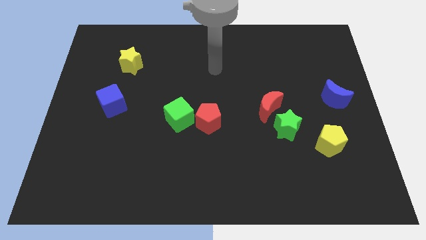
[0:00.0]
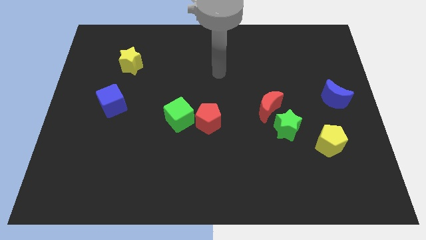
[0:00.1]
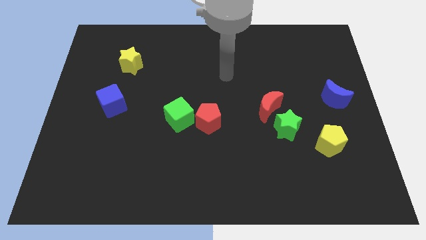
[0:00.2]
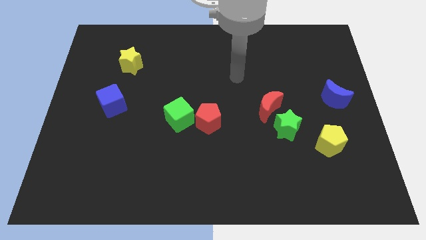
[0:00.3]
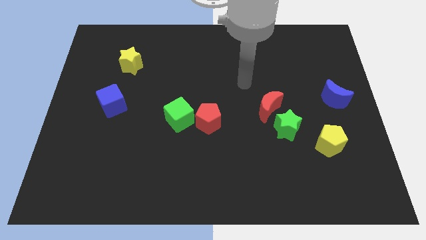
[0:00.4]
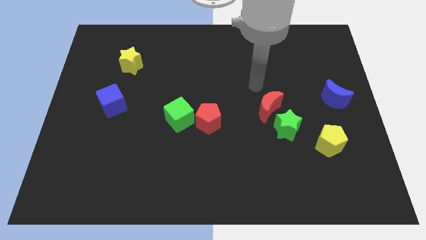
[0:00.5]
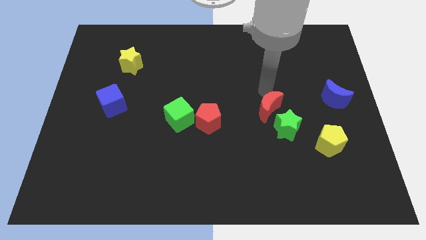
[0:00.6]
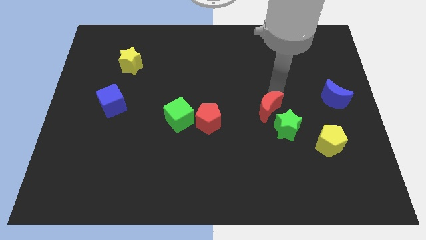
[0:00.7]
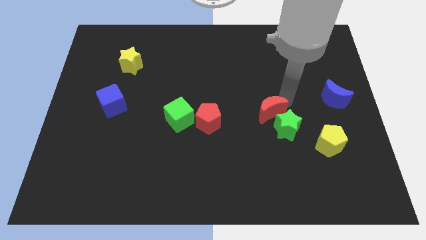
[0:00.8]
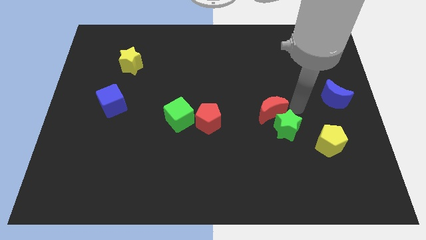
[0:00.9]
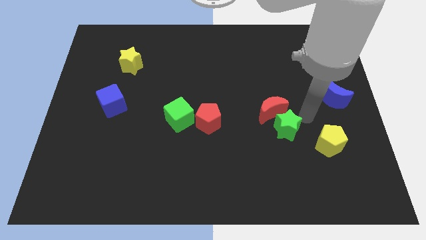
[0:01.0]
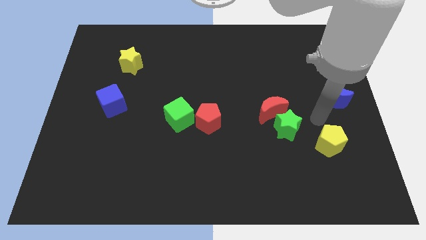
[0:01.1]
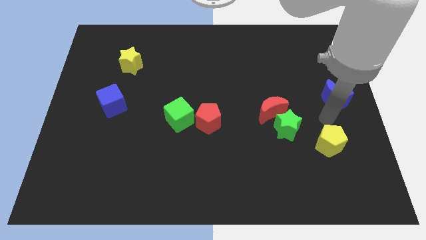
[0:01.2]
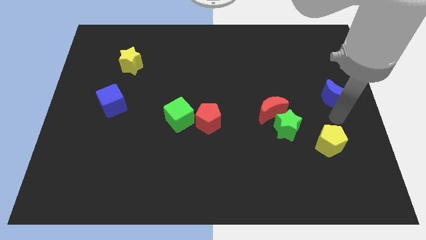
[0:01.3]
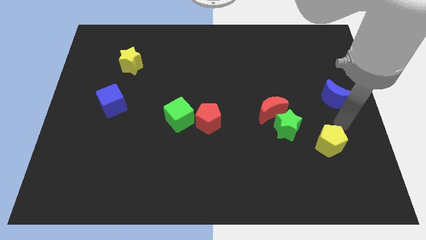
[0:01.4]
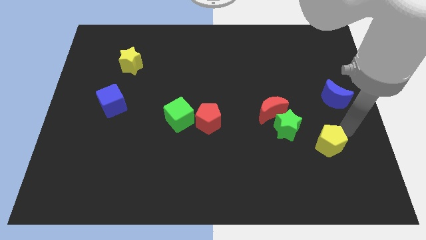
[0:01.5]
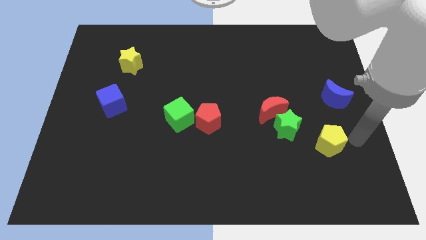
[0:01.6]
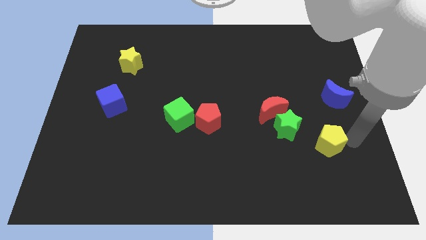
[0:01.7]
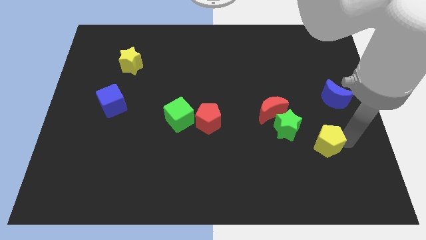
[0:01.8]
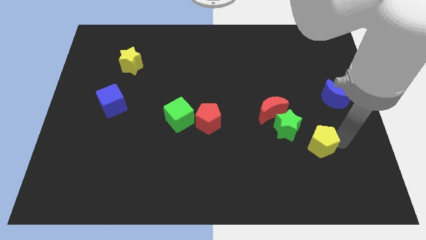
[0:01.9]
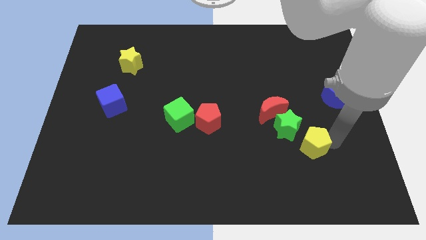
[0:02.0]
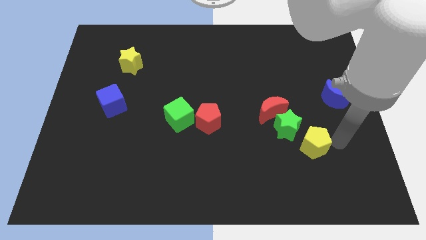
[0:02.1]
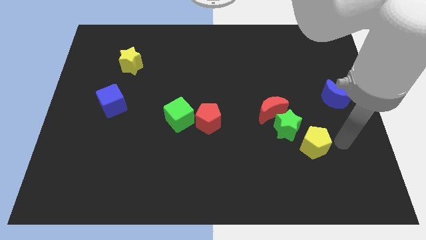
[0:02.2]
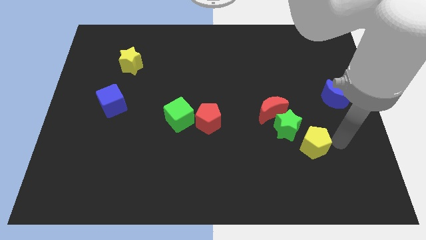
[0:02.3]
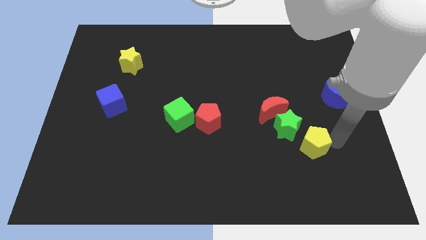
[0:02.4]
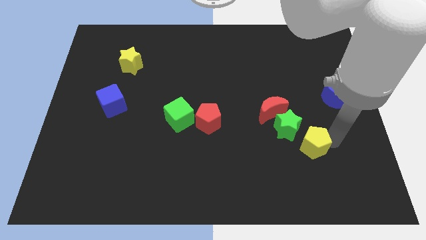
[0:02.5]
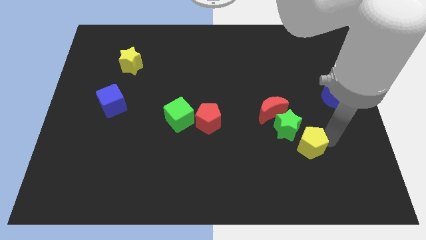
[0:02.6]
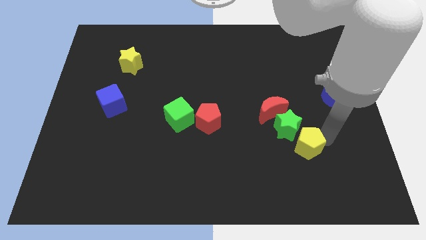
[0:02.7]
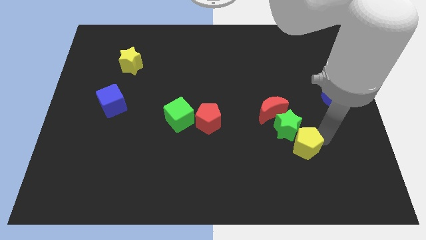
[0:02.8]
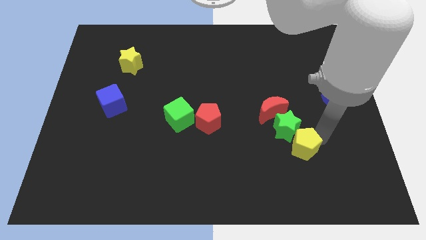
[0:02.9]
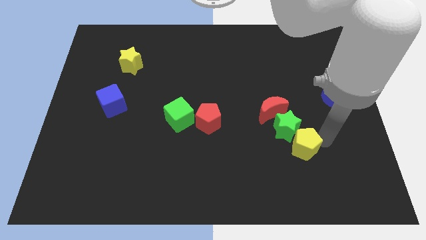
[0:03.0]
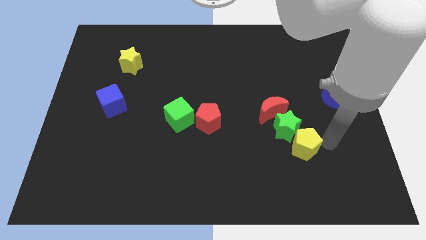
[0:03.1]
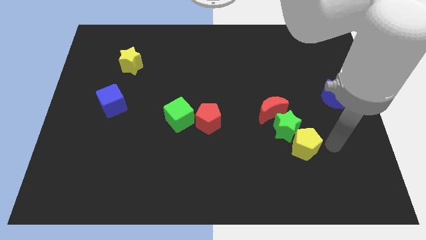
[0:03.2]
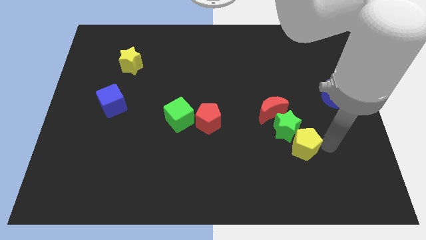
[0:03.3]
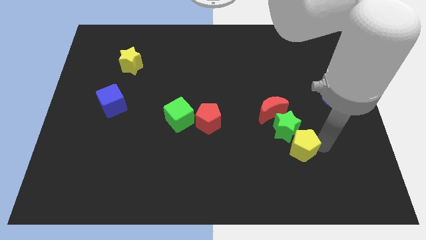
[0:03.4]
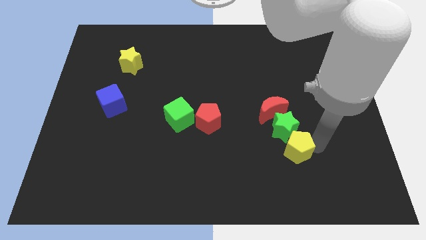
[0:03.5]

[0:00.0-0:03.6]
slide the yellow pentagon a bit left

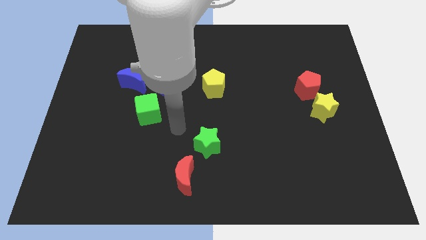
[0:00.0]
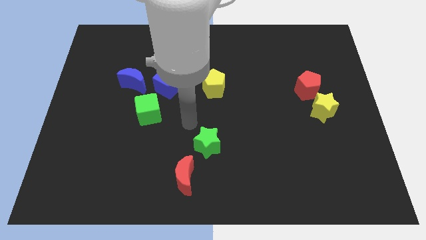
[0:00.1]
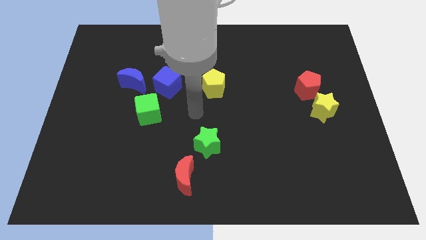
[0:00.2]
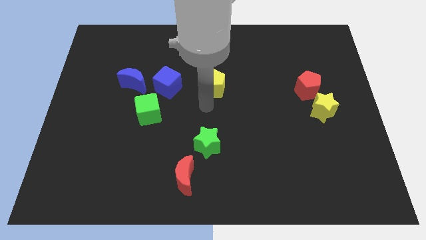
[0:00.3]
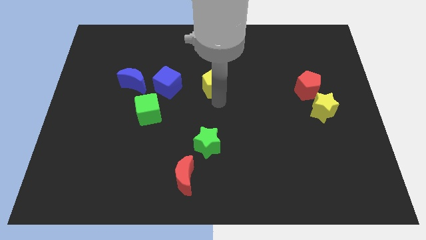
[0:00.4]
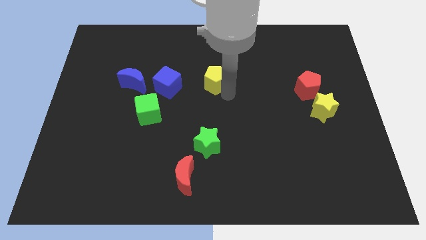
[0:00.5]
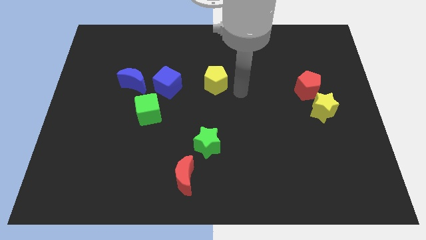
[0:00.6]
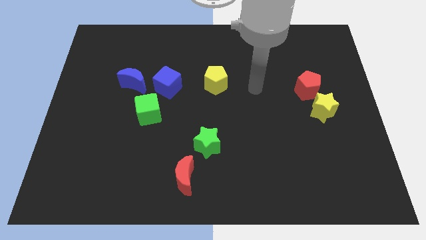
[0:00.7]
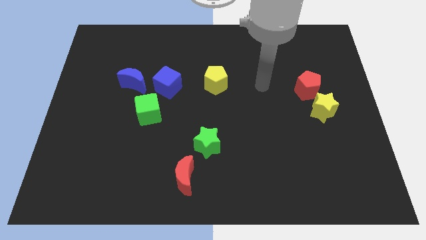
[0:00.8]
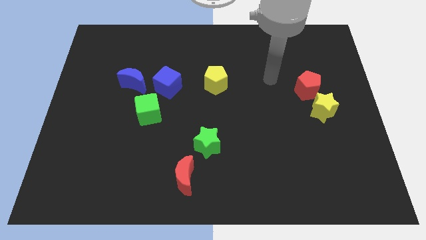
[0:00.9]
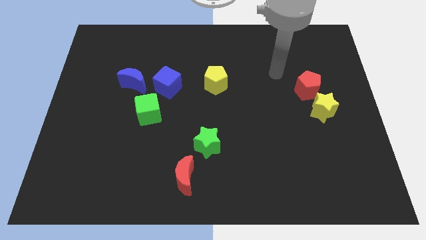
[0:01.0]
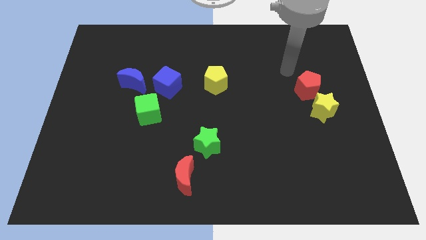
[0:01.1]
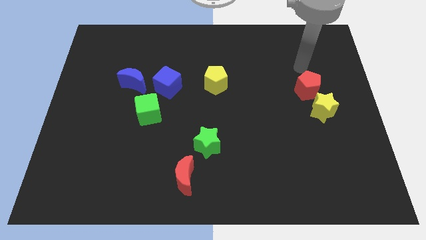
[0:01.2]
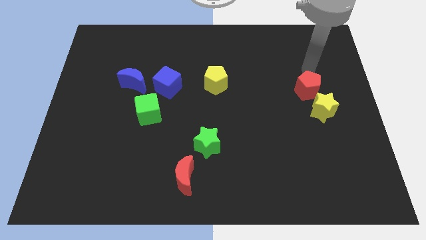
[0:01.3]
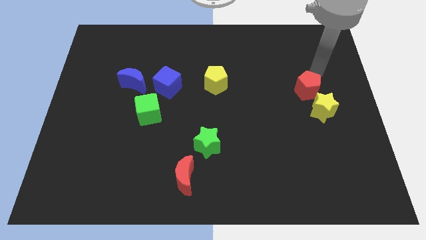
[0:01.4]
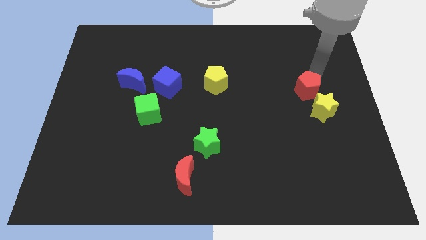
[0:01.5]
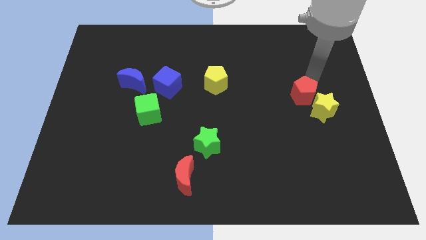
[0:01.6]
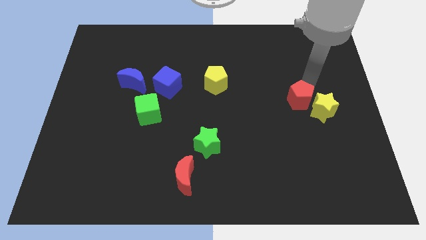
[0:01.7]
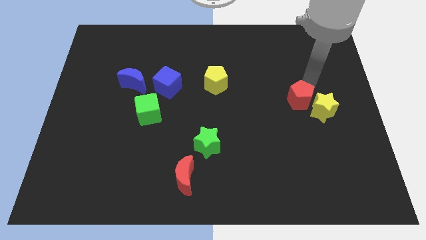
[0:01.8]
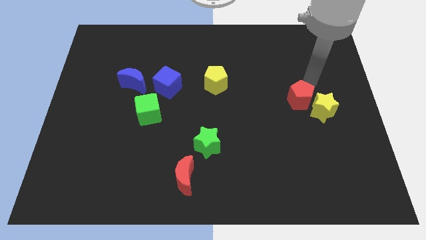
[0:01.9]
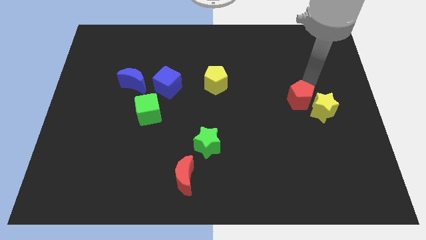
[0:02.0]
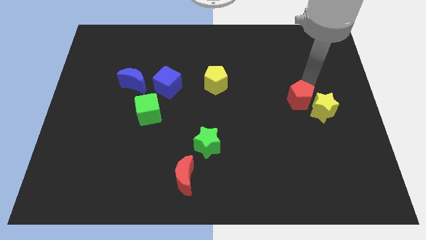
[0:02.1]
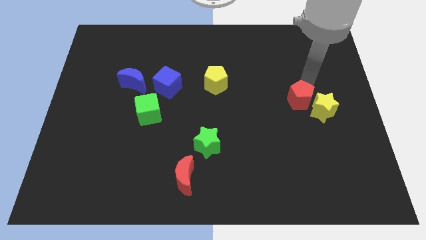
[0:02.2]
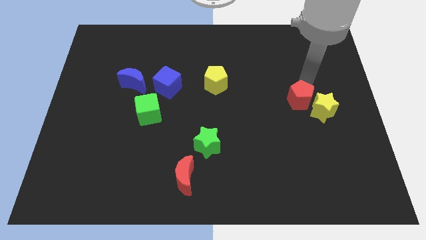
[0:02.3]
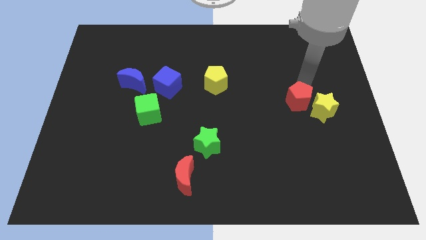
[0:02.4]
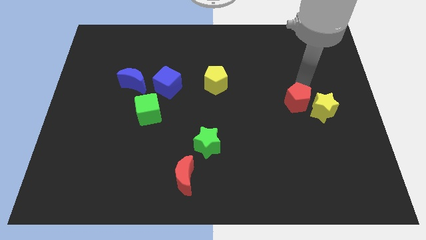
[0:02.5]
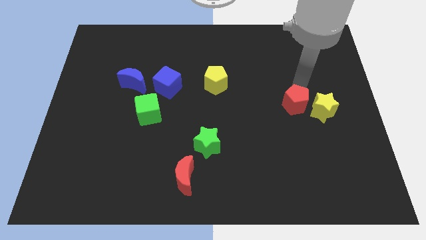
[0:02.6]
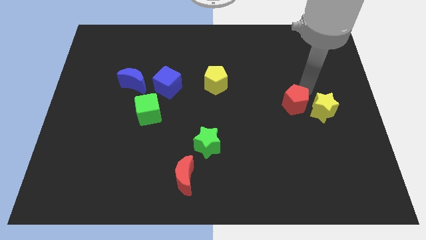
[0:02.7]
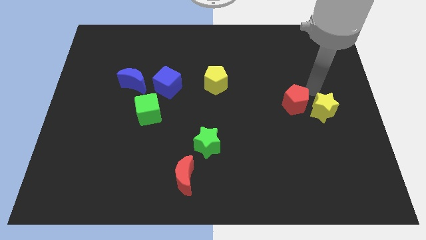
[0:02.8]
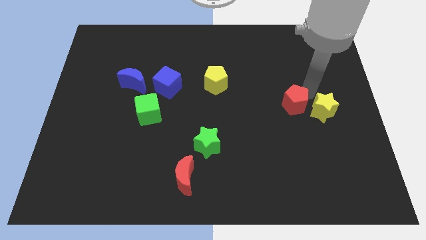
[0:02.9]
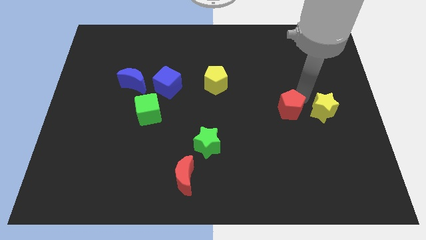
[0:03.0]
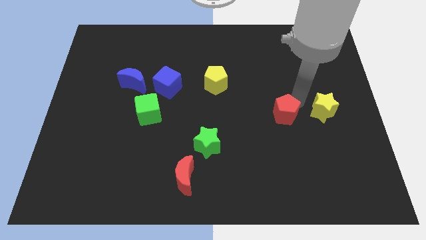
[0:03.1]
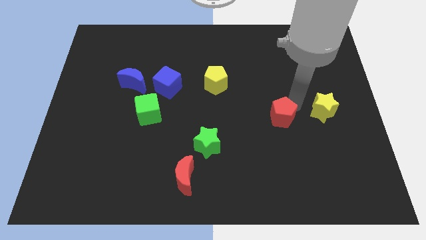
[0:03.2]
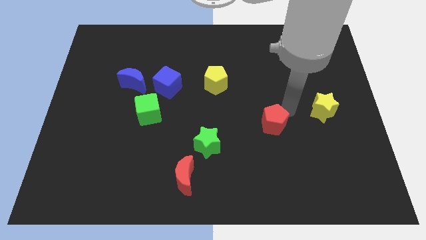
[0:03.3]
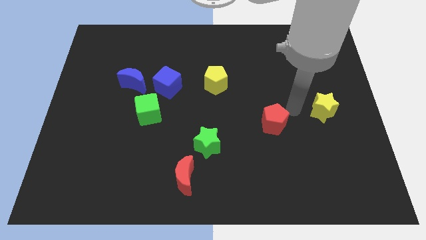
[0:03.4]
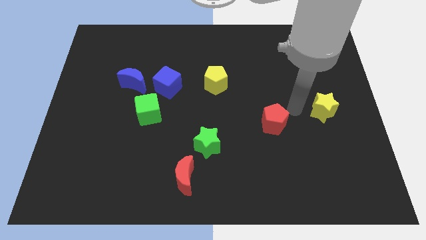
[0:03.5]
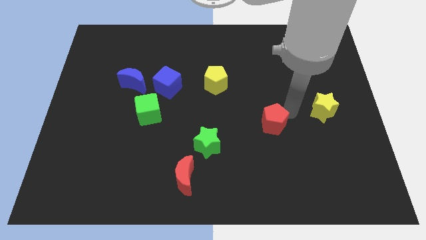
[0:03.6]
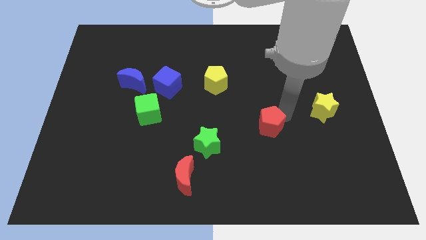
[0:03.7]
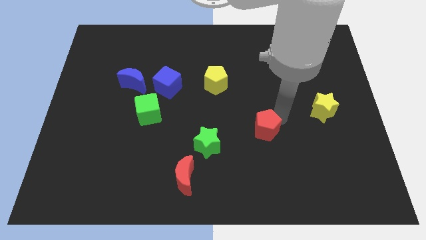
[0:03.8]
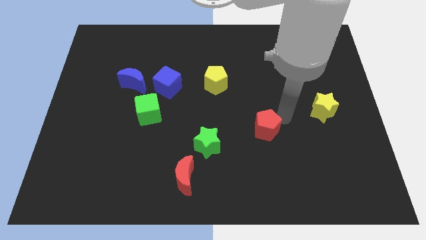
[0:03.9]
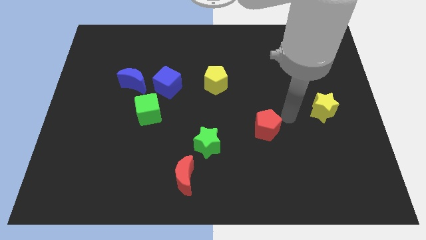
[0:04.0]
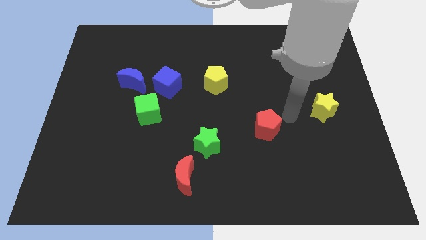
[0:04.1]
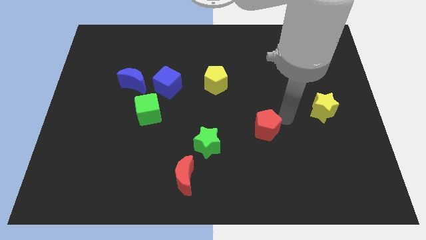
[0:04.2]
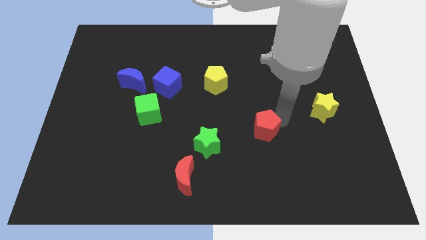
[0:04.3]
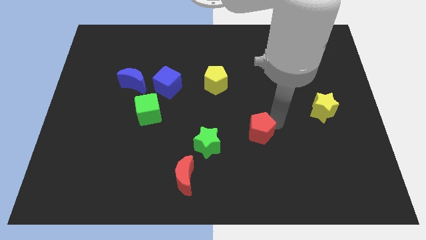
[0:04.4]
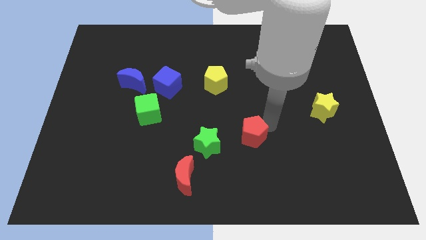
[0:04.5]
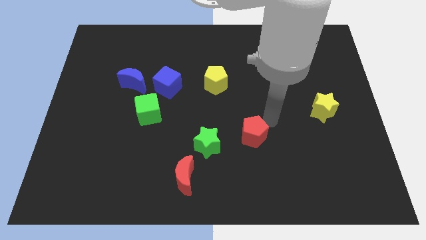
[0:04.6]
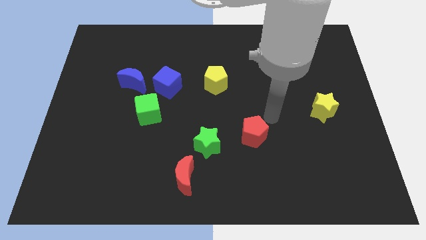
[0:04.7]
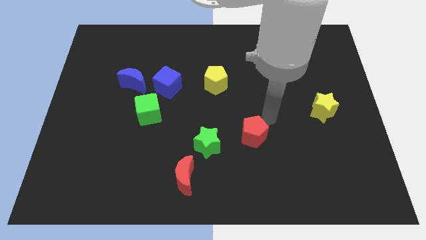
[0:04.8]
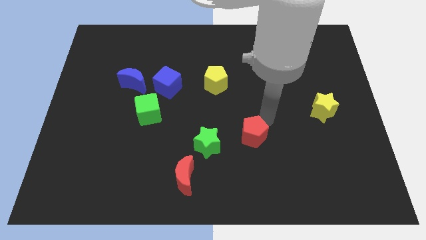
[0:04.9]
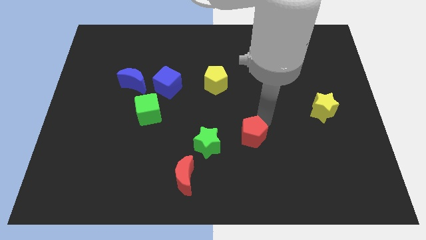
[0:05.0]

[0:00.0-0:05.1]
slide the red pentagon diagonally downwards and to the left
